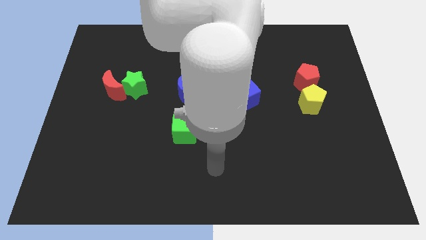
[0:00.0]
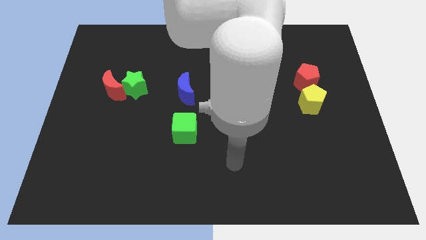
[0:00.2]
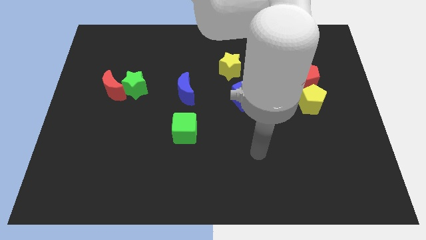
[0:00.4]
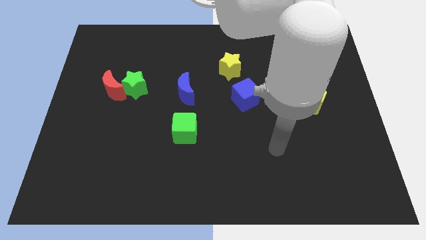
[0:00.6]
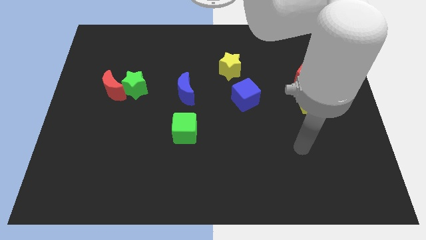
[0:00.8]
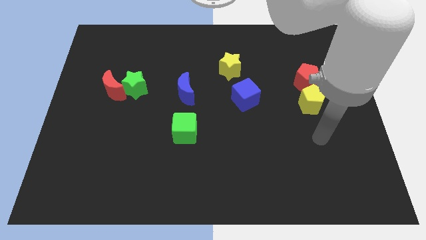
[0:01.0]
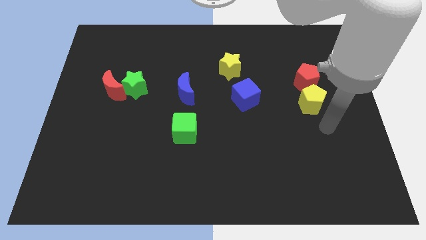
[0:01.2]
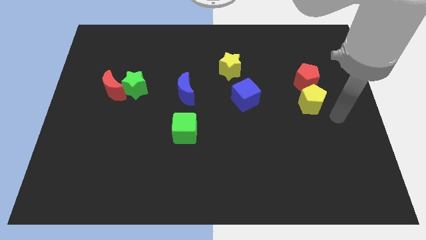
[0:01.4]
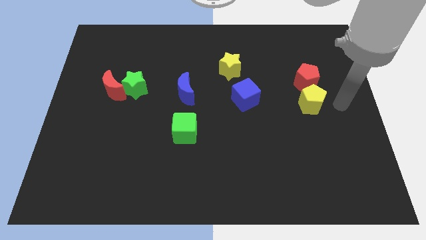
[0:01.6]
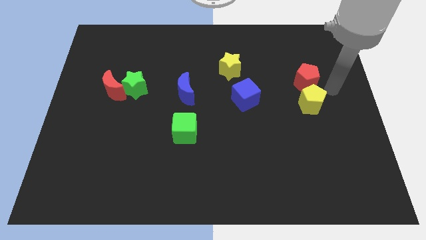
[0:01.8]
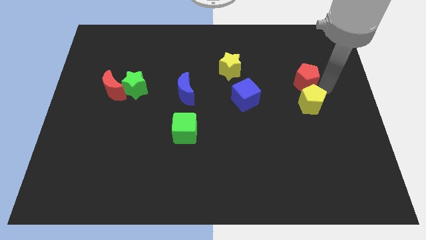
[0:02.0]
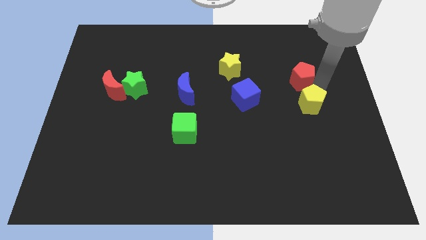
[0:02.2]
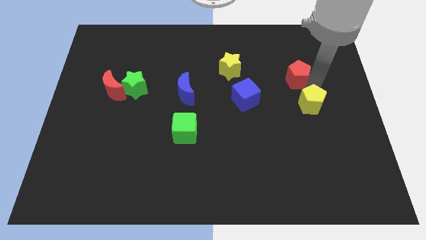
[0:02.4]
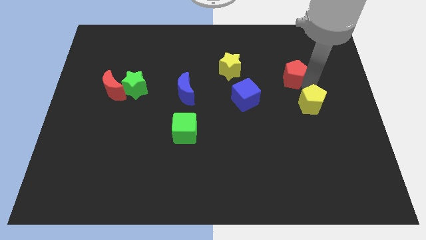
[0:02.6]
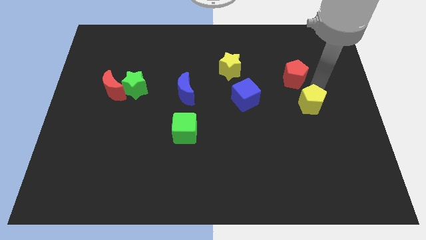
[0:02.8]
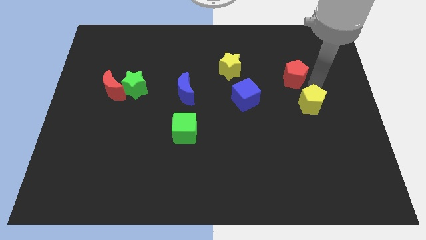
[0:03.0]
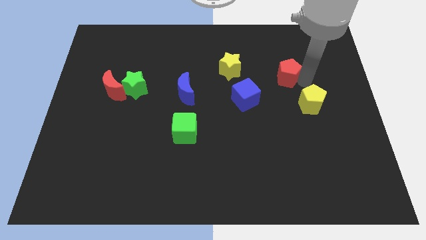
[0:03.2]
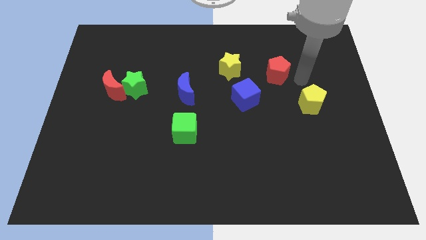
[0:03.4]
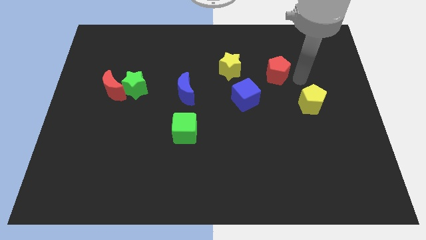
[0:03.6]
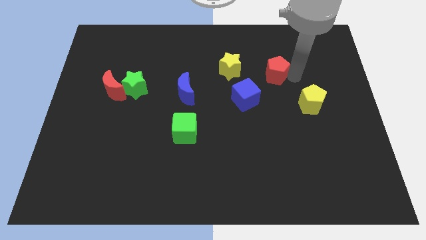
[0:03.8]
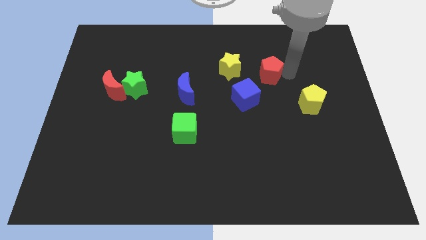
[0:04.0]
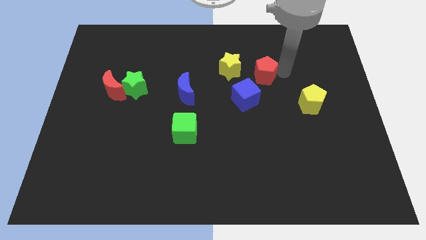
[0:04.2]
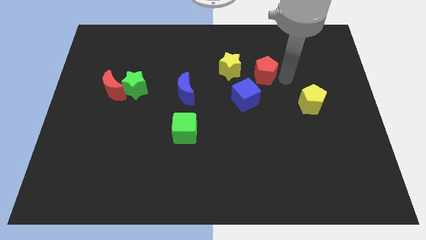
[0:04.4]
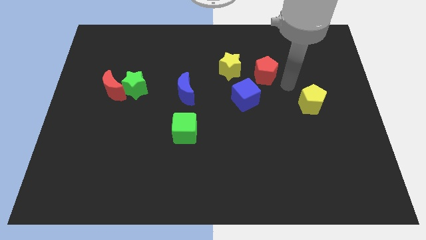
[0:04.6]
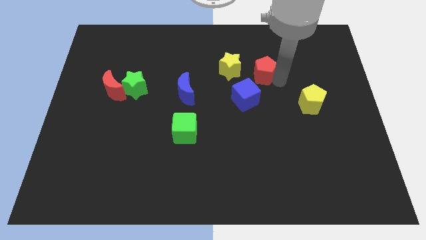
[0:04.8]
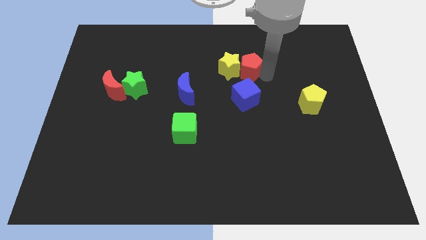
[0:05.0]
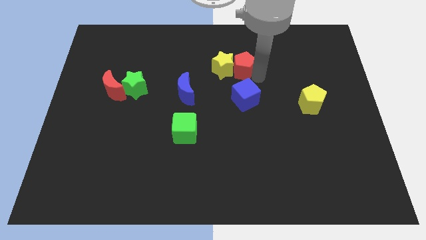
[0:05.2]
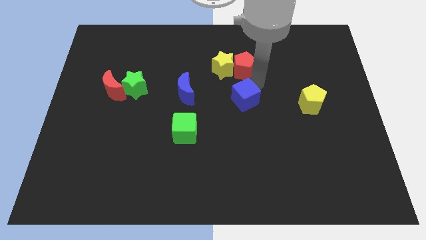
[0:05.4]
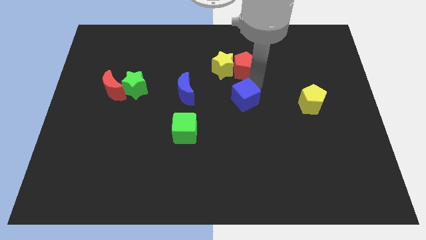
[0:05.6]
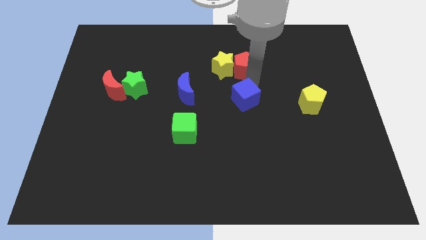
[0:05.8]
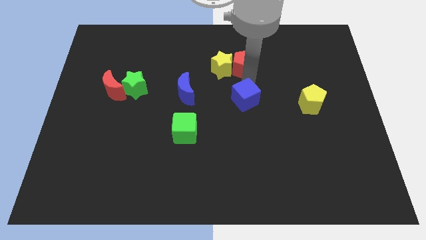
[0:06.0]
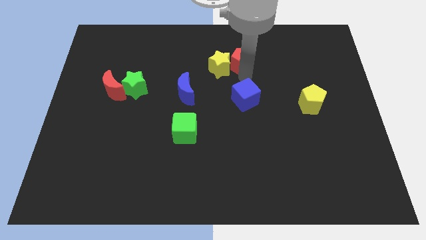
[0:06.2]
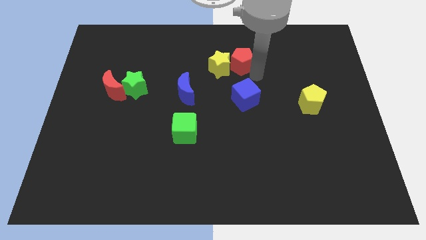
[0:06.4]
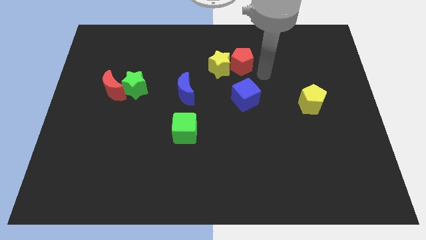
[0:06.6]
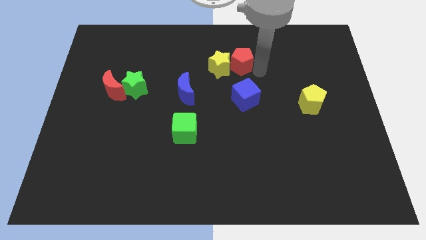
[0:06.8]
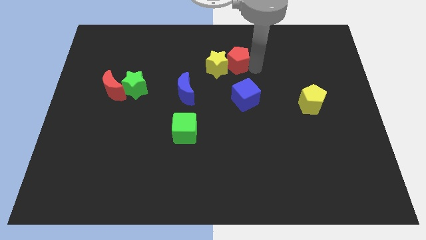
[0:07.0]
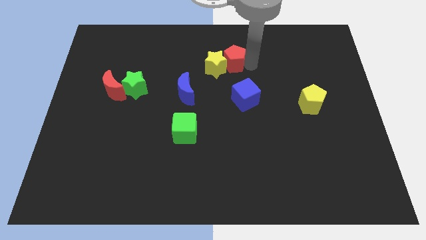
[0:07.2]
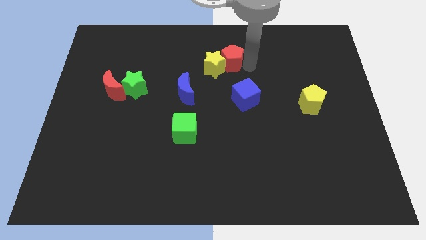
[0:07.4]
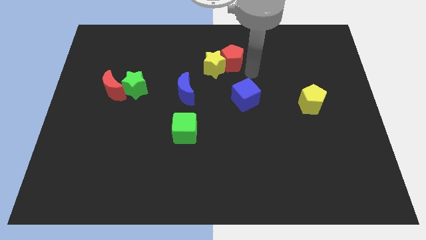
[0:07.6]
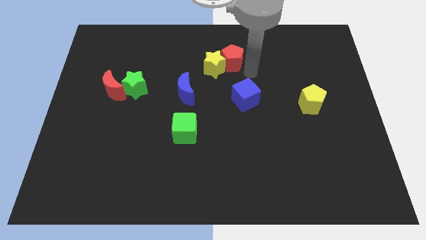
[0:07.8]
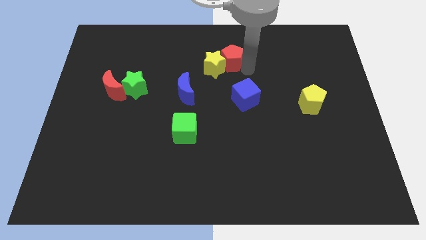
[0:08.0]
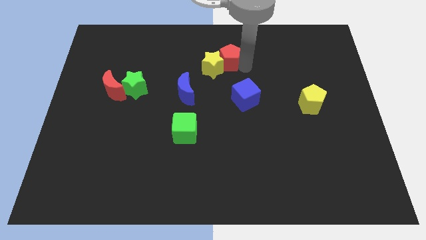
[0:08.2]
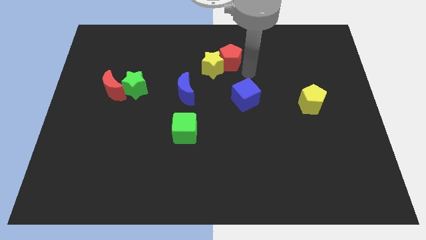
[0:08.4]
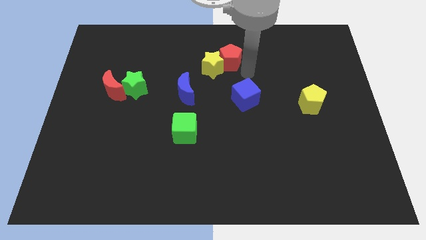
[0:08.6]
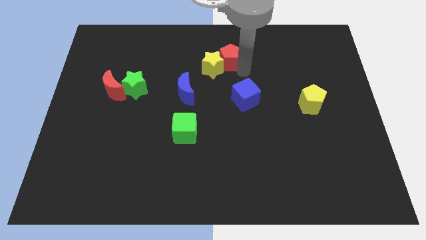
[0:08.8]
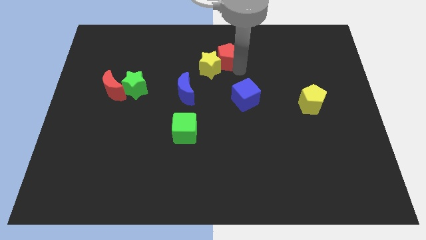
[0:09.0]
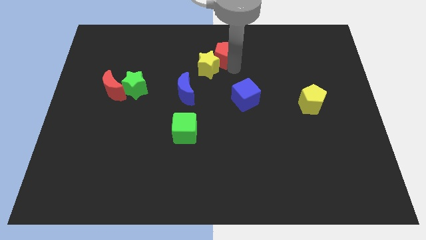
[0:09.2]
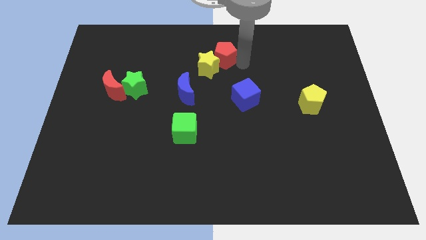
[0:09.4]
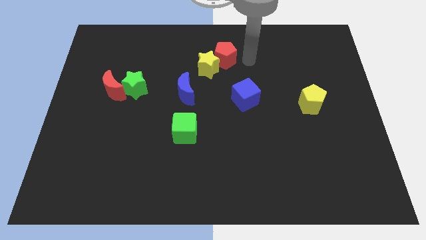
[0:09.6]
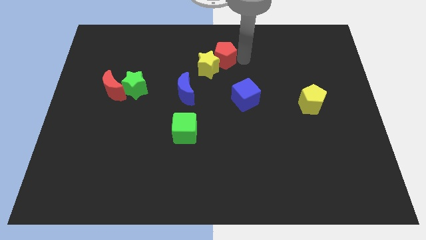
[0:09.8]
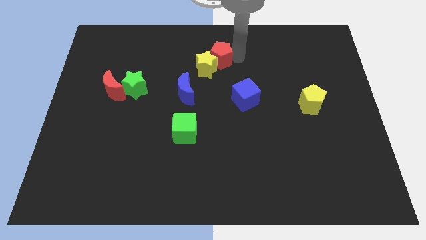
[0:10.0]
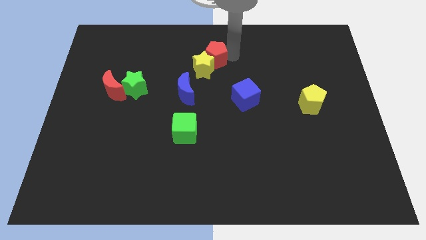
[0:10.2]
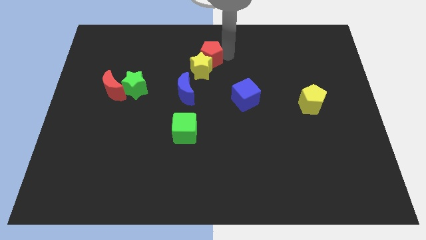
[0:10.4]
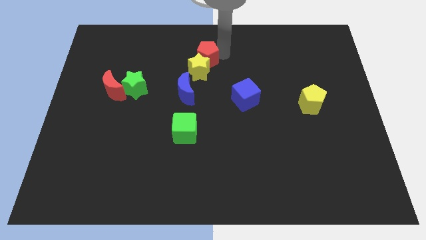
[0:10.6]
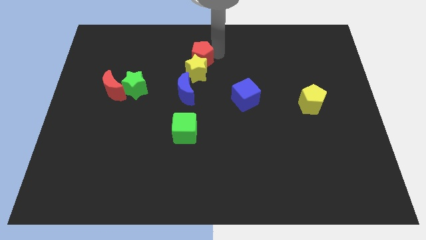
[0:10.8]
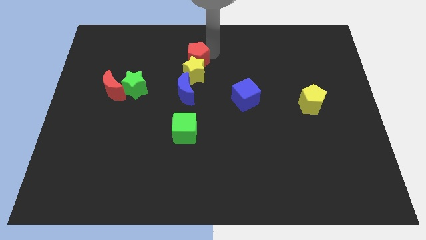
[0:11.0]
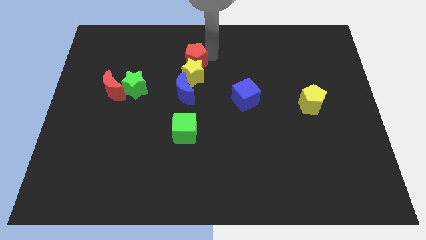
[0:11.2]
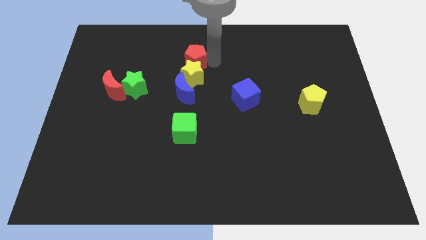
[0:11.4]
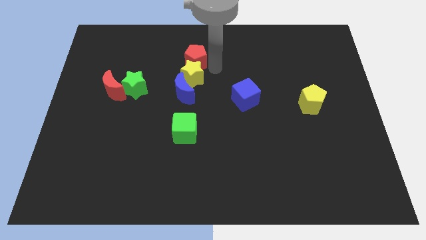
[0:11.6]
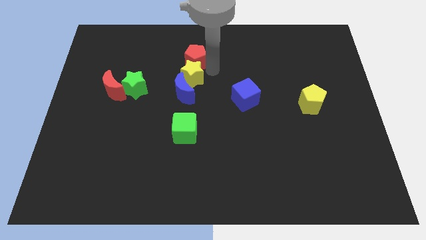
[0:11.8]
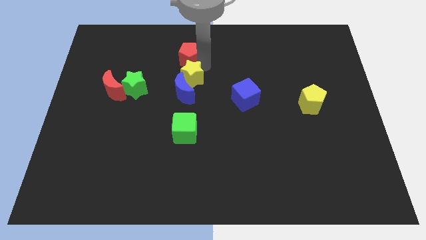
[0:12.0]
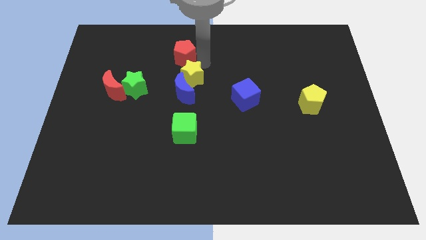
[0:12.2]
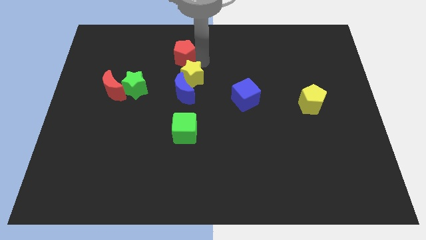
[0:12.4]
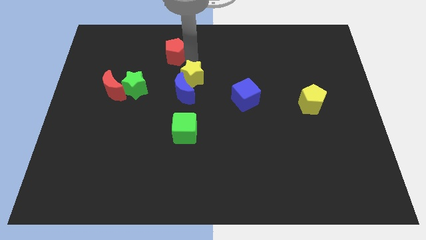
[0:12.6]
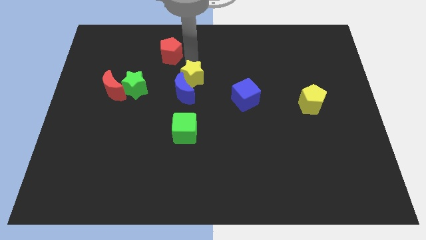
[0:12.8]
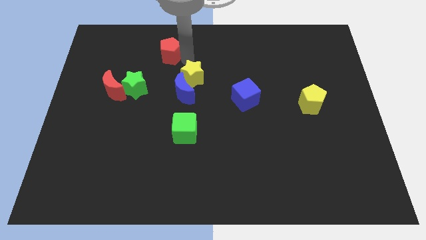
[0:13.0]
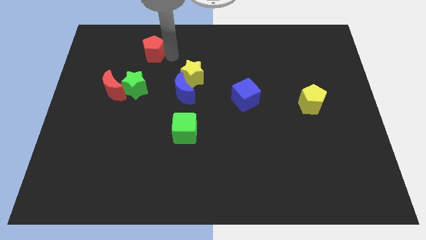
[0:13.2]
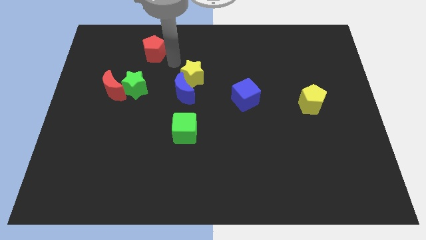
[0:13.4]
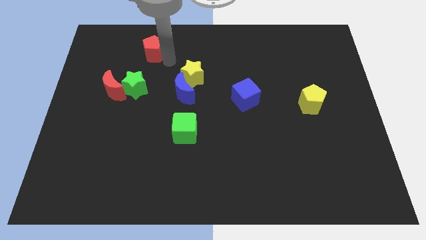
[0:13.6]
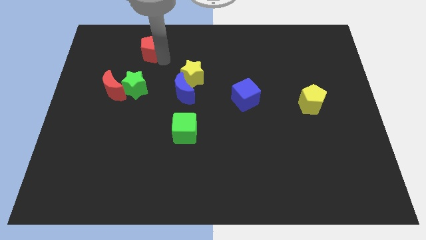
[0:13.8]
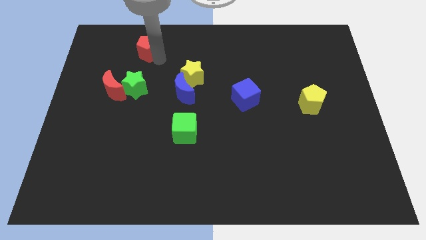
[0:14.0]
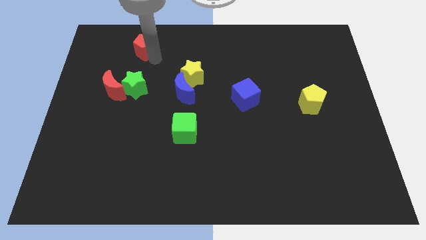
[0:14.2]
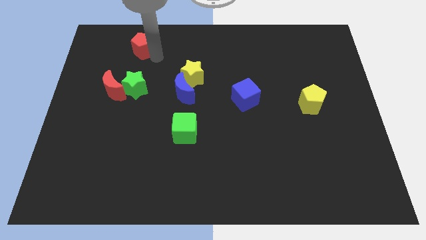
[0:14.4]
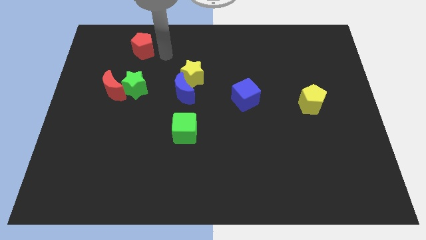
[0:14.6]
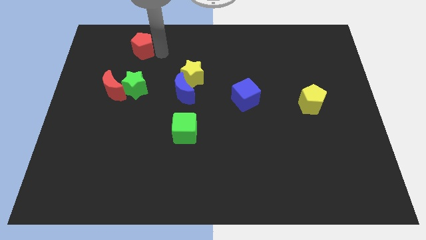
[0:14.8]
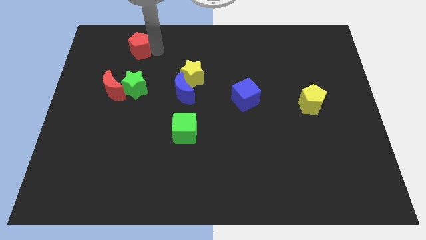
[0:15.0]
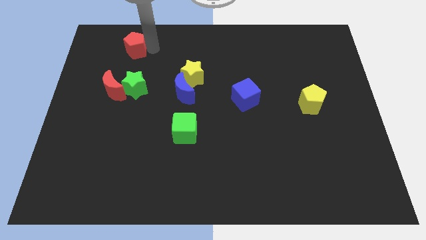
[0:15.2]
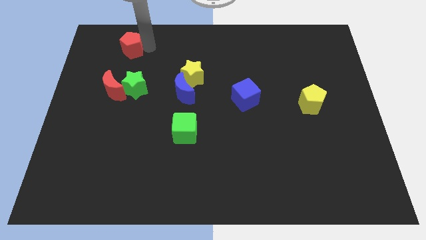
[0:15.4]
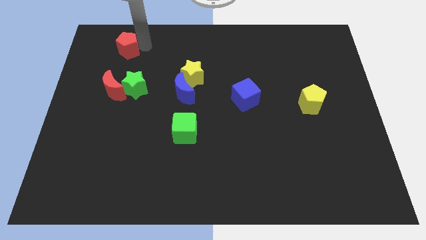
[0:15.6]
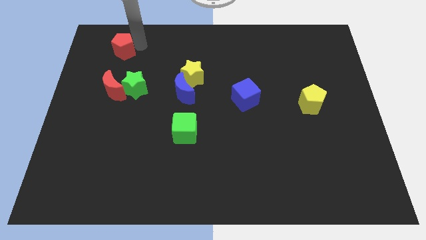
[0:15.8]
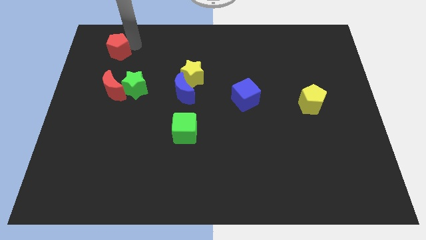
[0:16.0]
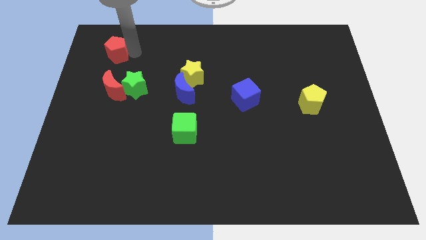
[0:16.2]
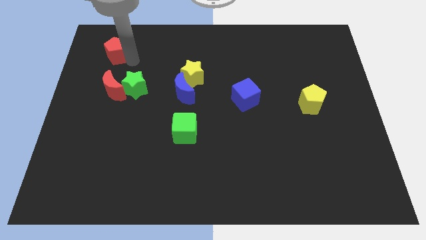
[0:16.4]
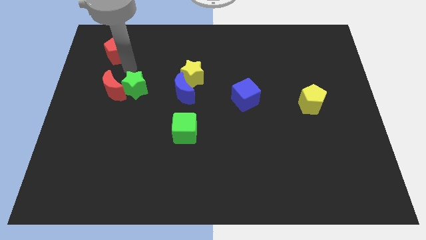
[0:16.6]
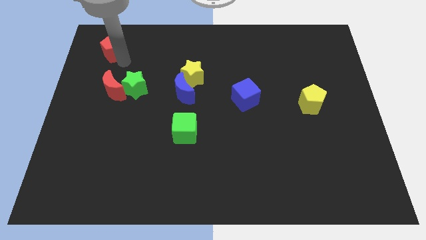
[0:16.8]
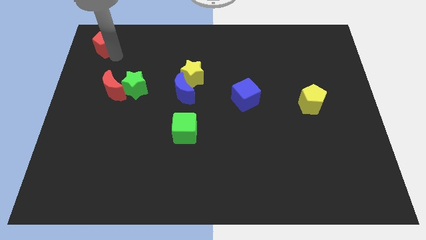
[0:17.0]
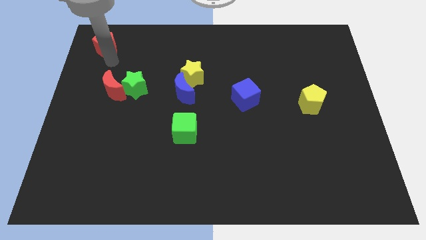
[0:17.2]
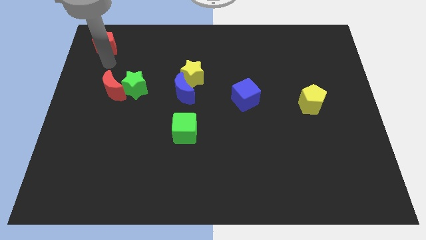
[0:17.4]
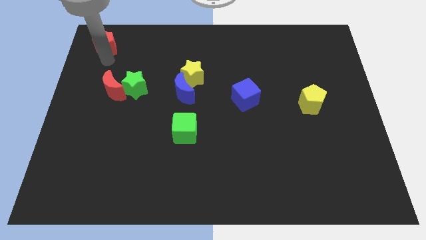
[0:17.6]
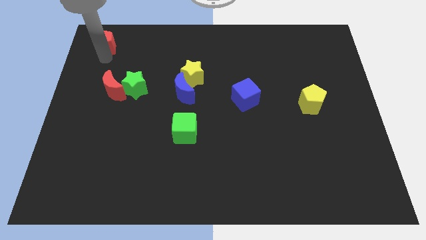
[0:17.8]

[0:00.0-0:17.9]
slide the red pentagon to the top left corner
